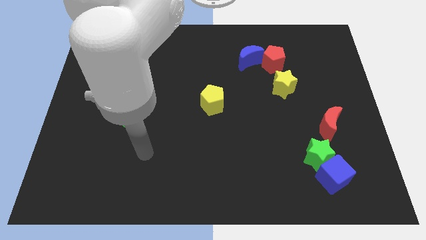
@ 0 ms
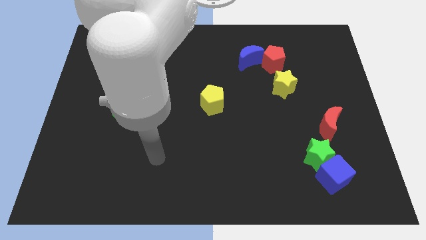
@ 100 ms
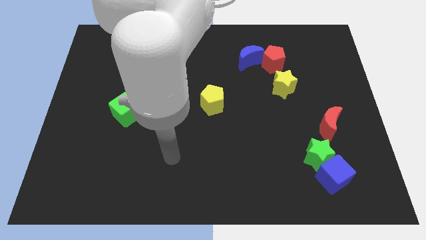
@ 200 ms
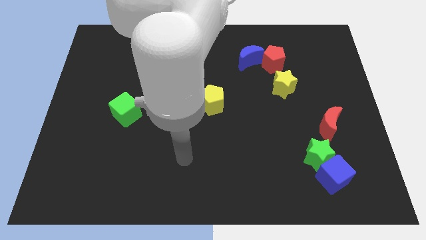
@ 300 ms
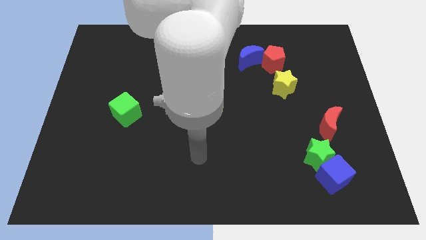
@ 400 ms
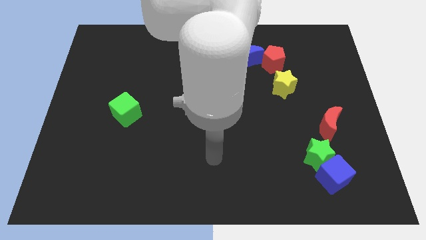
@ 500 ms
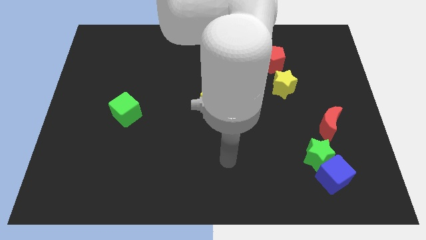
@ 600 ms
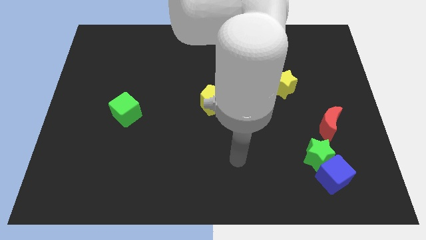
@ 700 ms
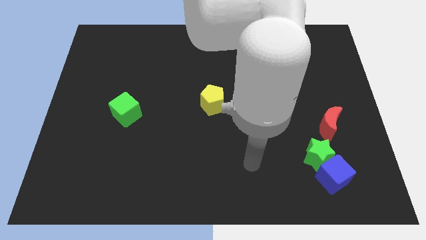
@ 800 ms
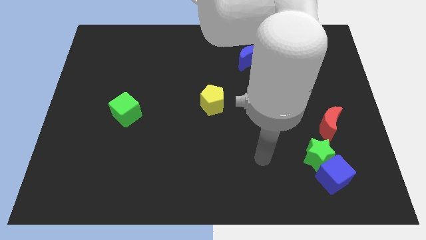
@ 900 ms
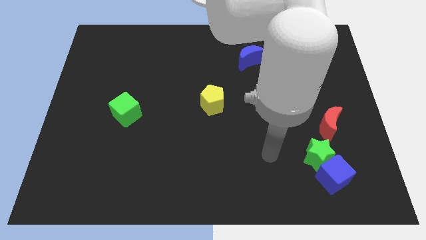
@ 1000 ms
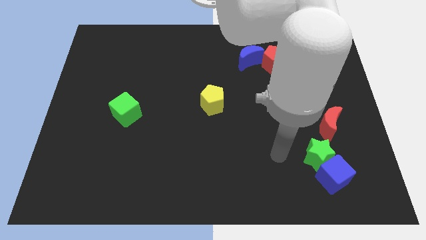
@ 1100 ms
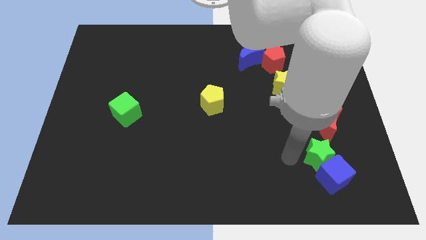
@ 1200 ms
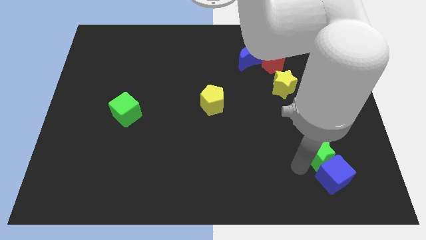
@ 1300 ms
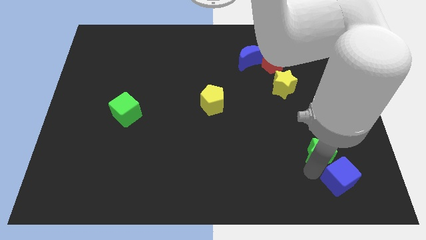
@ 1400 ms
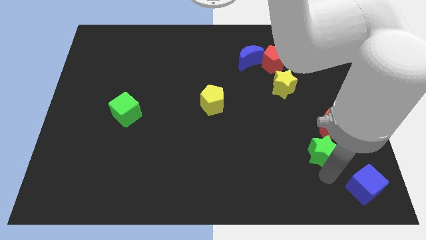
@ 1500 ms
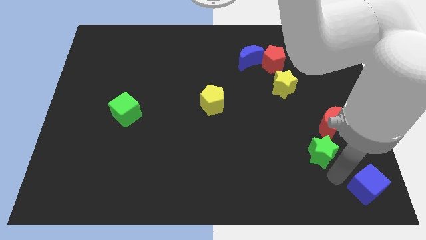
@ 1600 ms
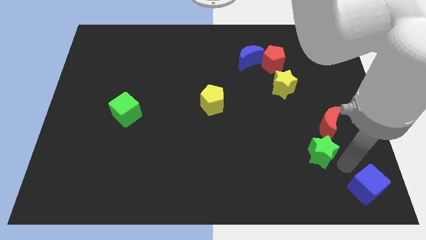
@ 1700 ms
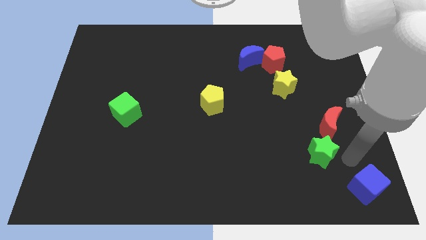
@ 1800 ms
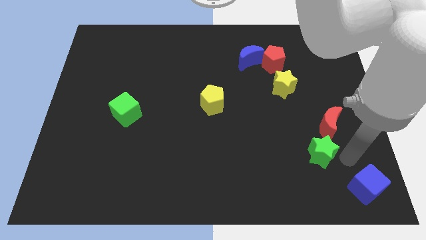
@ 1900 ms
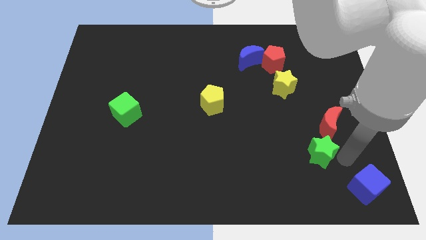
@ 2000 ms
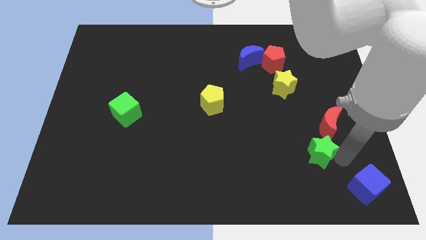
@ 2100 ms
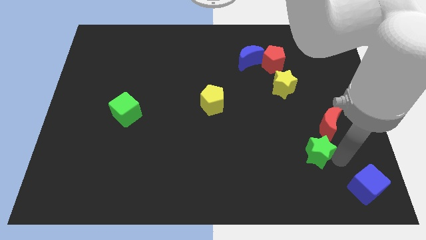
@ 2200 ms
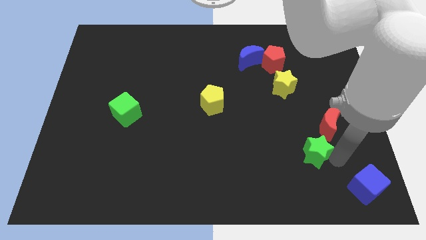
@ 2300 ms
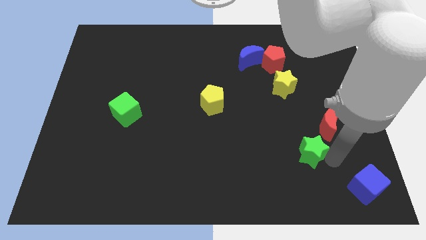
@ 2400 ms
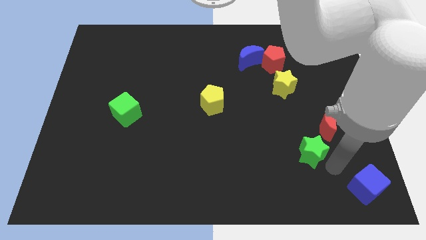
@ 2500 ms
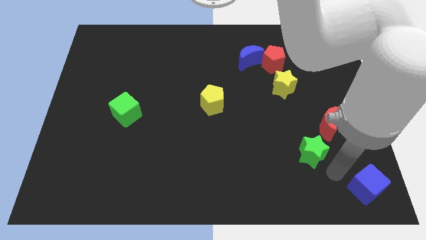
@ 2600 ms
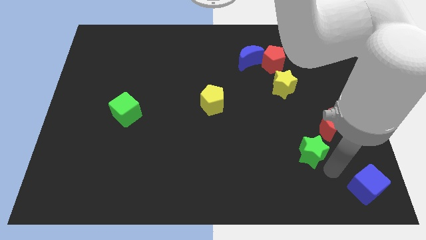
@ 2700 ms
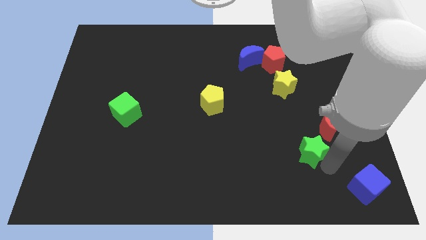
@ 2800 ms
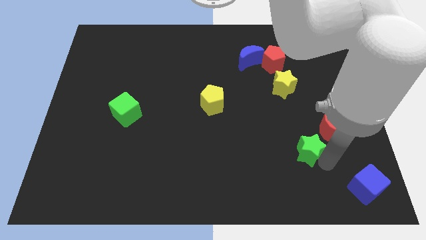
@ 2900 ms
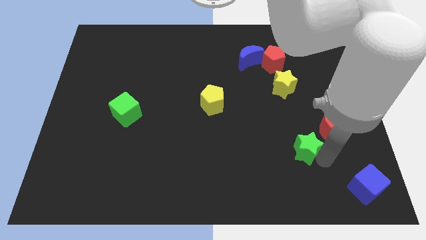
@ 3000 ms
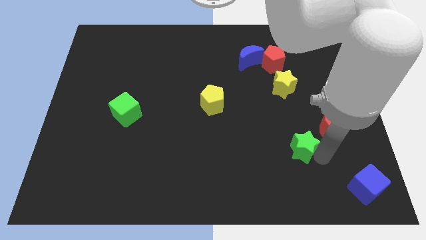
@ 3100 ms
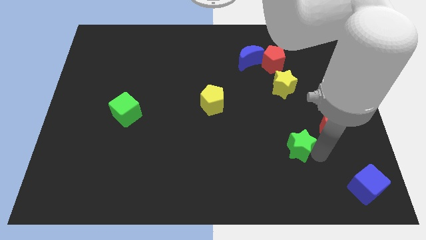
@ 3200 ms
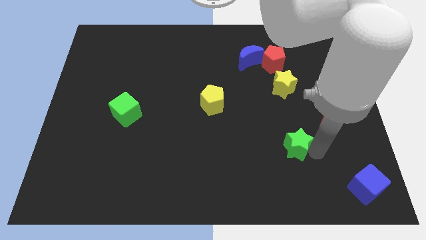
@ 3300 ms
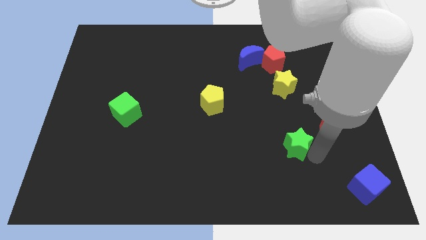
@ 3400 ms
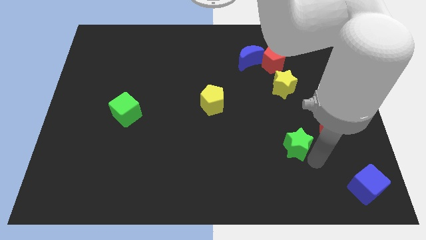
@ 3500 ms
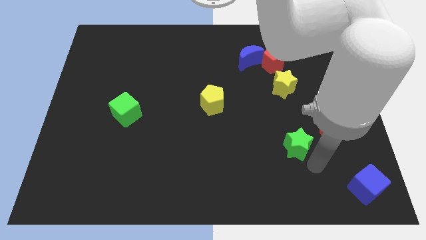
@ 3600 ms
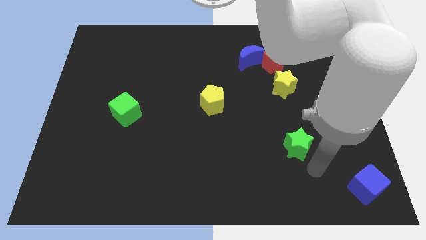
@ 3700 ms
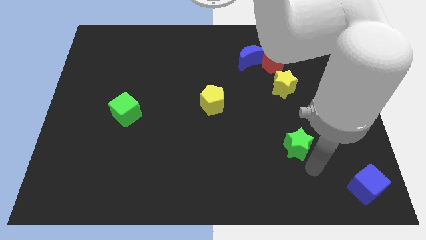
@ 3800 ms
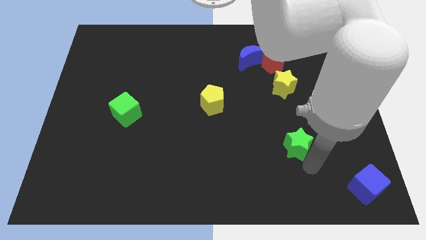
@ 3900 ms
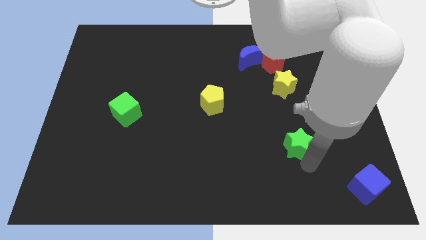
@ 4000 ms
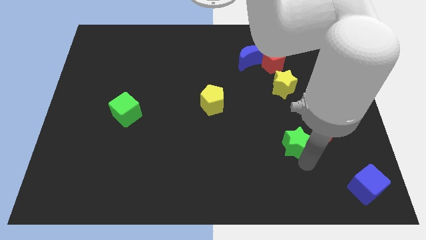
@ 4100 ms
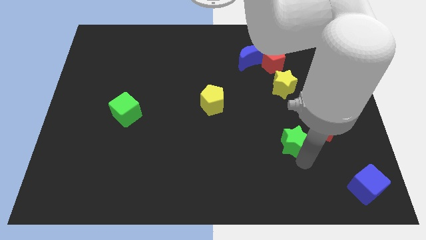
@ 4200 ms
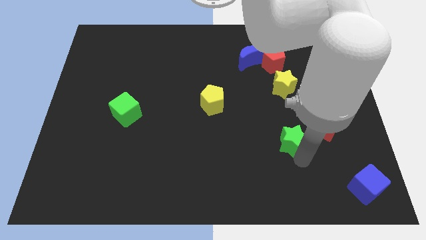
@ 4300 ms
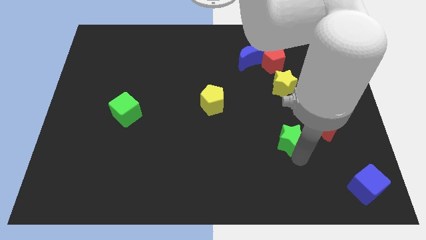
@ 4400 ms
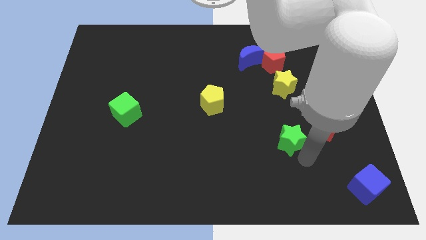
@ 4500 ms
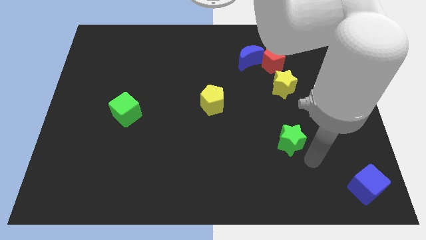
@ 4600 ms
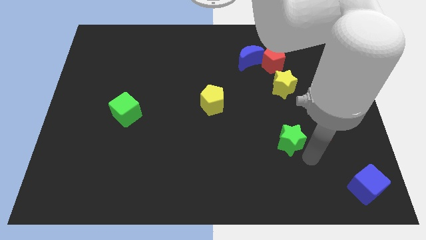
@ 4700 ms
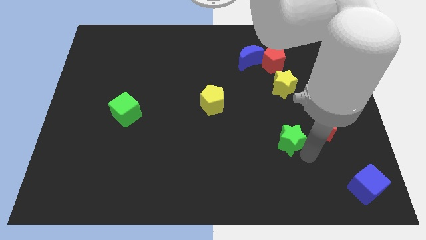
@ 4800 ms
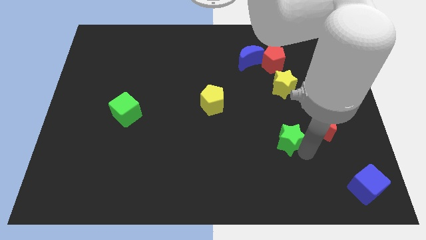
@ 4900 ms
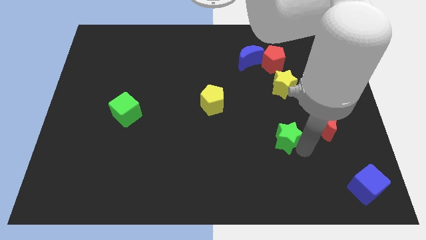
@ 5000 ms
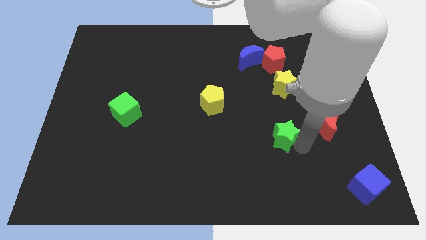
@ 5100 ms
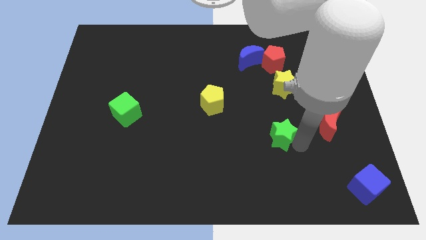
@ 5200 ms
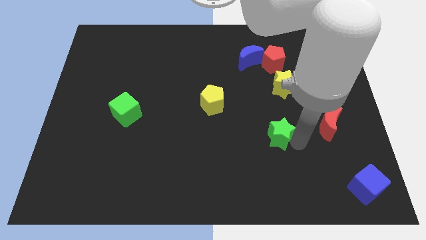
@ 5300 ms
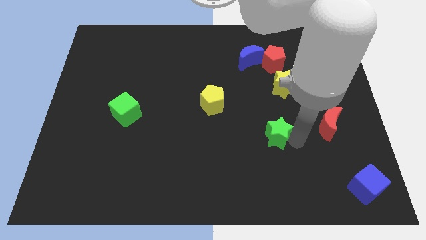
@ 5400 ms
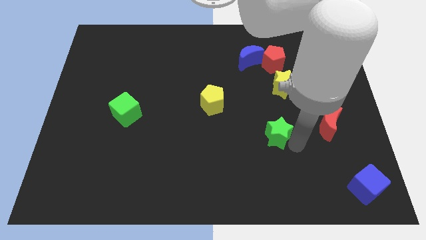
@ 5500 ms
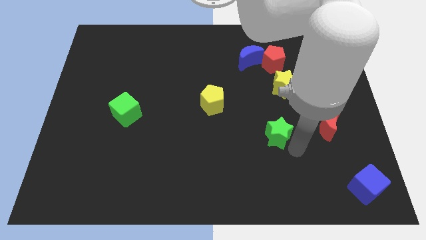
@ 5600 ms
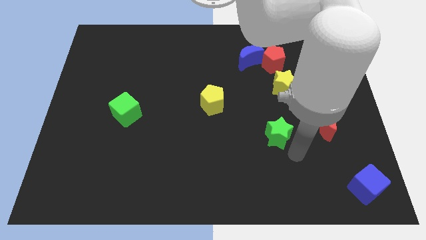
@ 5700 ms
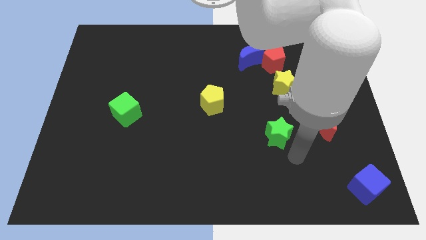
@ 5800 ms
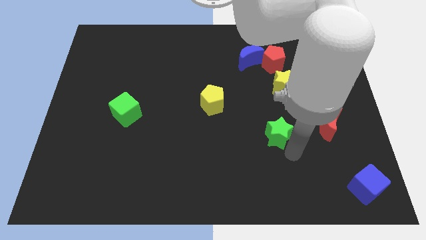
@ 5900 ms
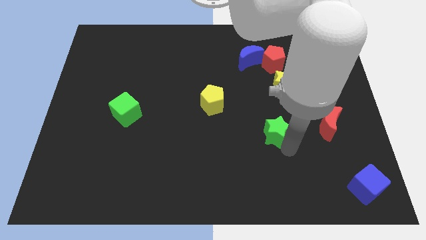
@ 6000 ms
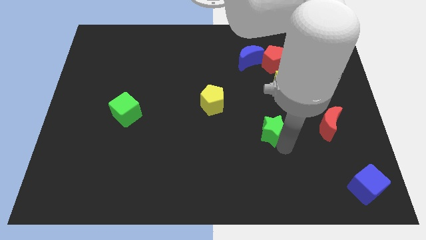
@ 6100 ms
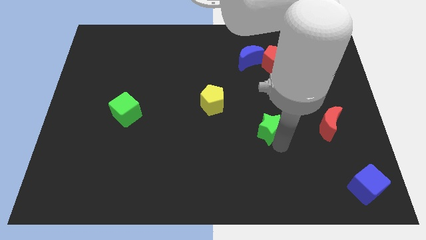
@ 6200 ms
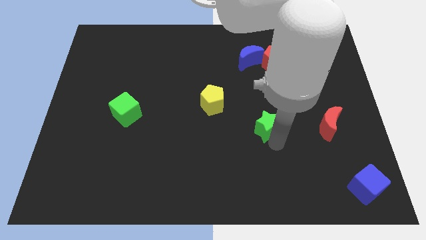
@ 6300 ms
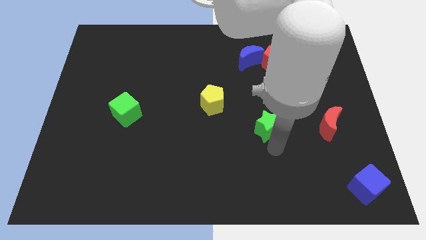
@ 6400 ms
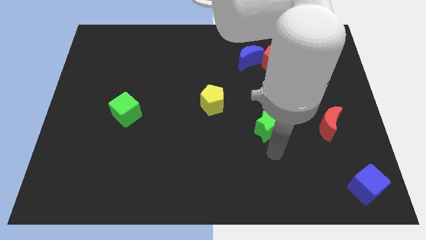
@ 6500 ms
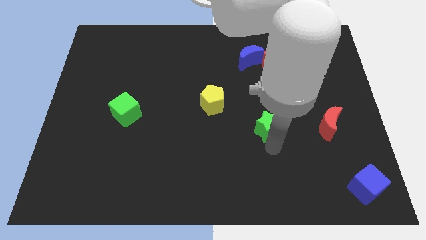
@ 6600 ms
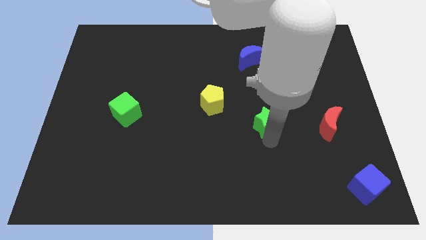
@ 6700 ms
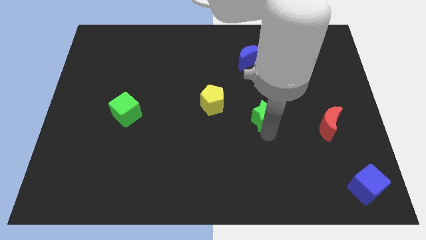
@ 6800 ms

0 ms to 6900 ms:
slide the green star to the right side of the yellow pentagon

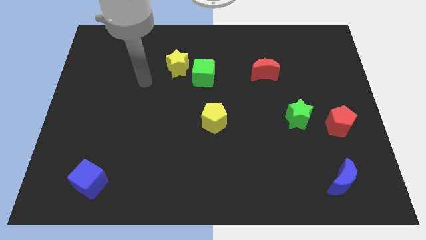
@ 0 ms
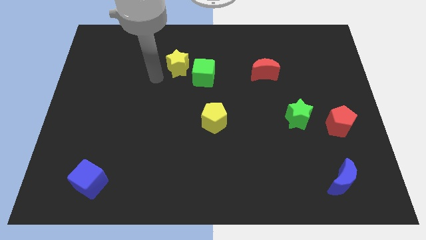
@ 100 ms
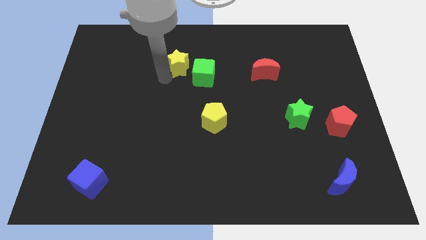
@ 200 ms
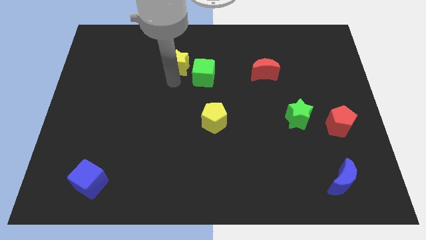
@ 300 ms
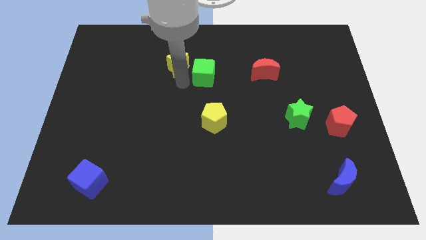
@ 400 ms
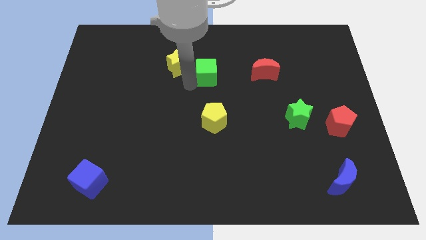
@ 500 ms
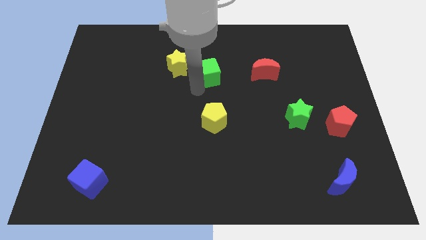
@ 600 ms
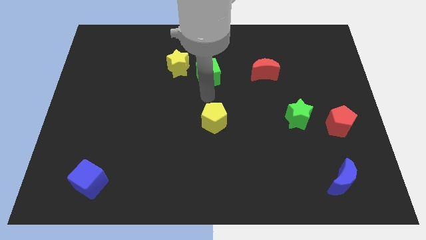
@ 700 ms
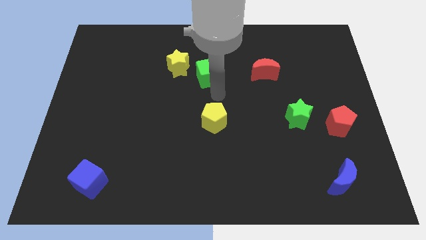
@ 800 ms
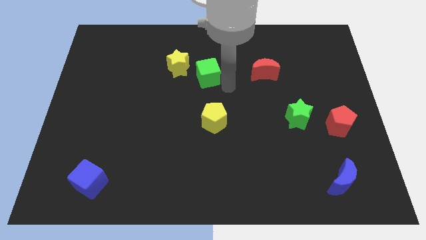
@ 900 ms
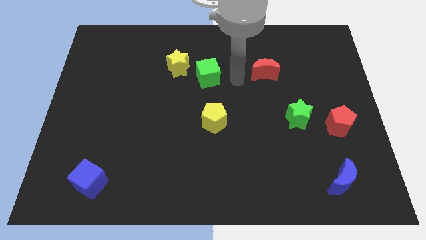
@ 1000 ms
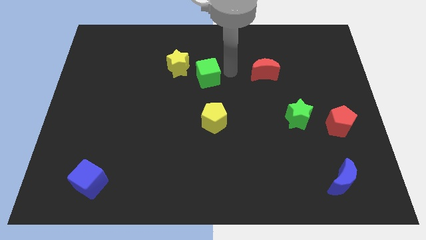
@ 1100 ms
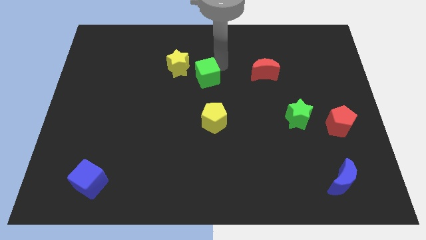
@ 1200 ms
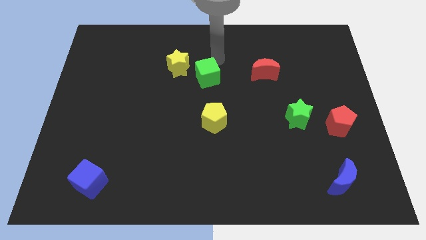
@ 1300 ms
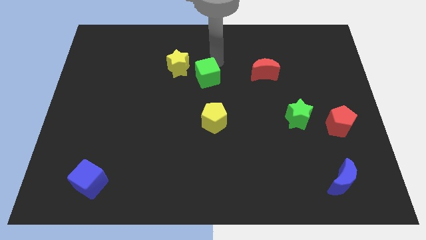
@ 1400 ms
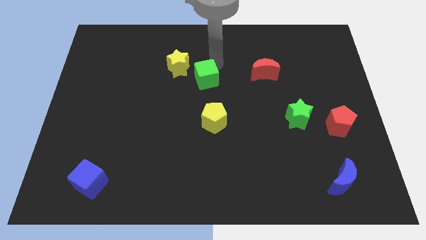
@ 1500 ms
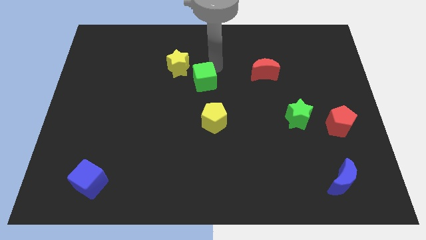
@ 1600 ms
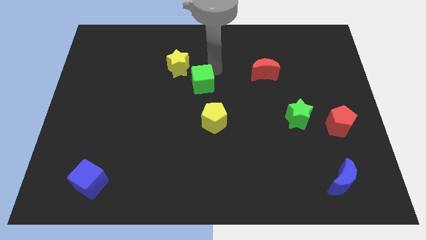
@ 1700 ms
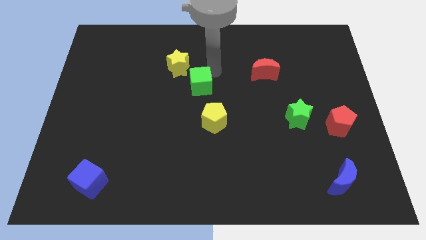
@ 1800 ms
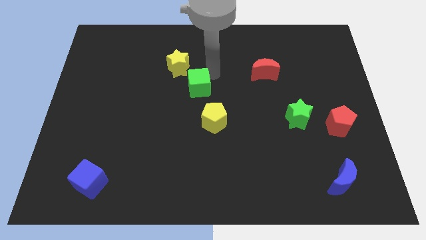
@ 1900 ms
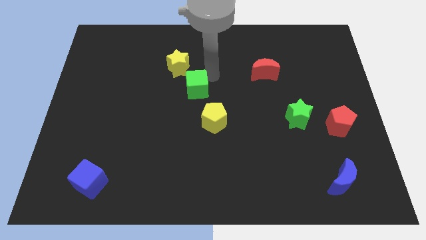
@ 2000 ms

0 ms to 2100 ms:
put the green cube diagonally up and to the left of the yellow pentagon
